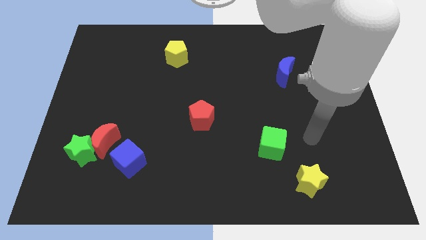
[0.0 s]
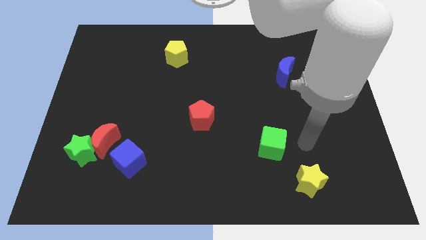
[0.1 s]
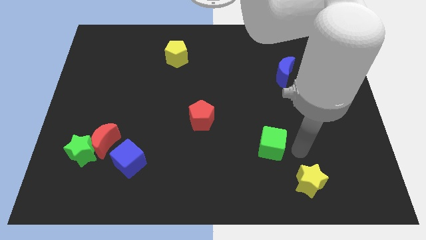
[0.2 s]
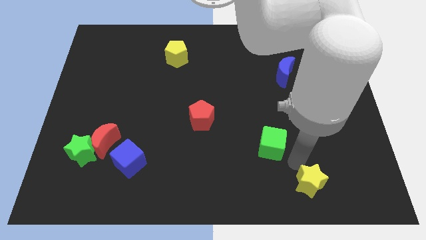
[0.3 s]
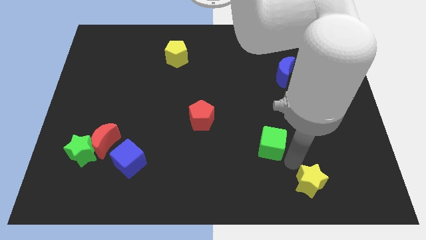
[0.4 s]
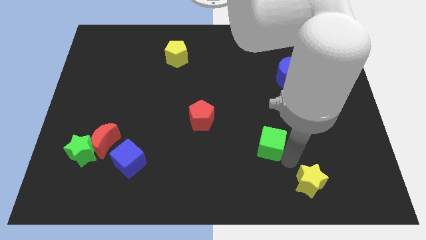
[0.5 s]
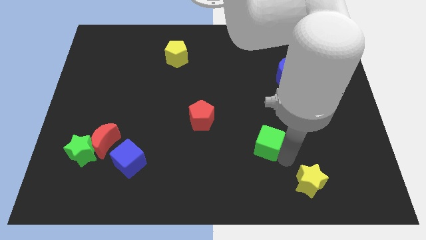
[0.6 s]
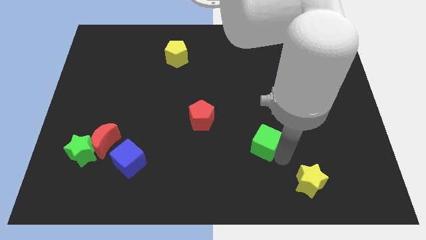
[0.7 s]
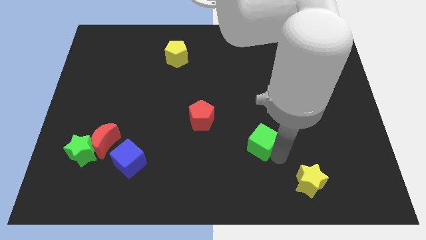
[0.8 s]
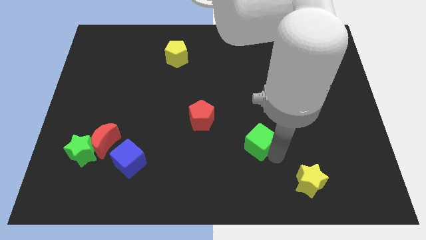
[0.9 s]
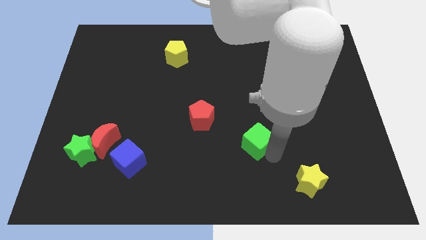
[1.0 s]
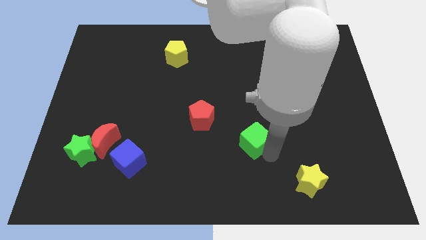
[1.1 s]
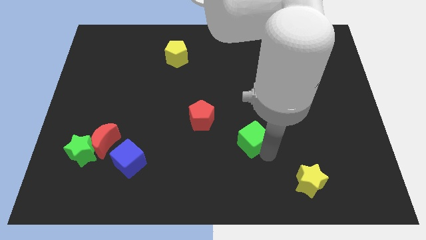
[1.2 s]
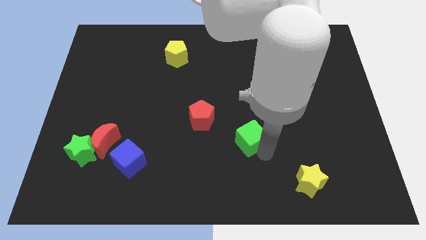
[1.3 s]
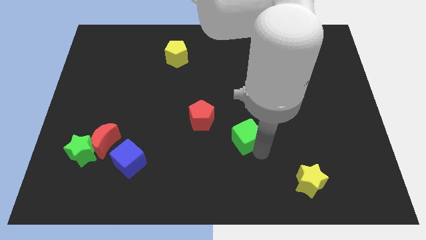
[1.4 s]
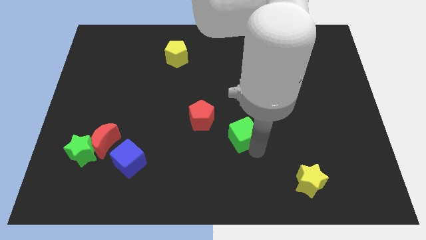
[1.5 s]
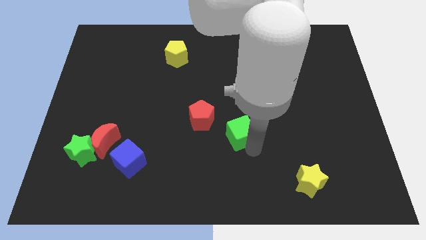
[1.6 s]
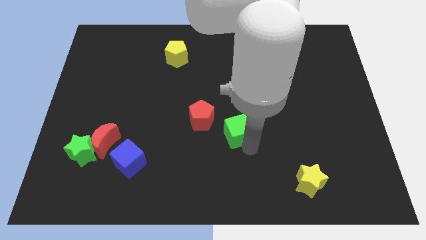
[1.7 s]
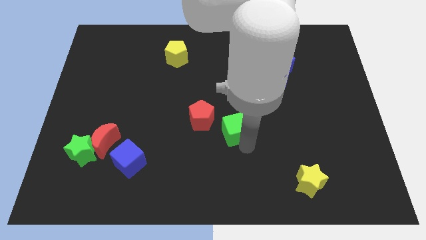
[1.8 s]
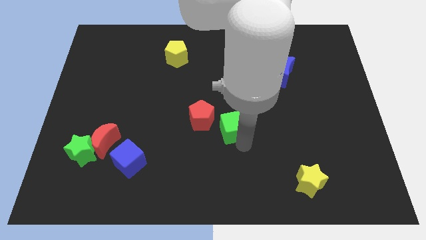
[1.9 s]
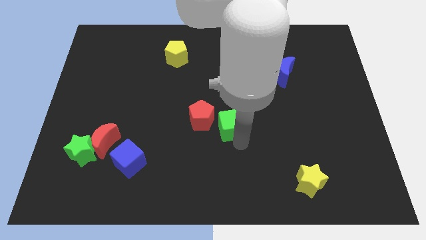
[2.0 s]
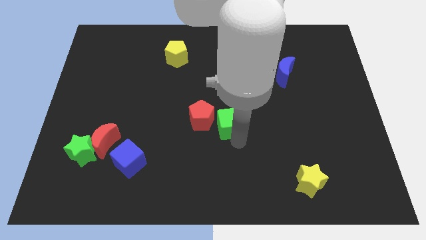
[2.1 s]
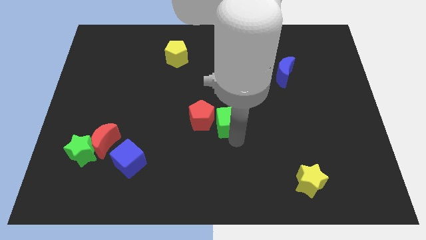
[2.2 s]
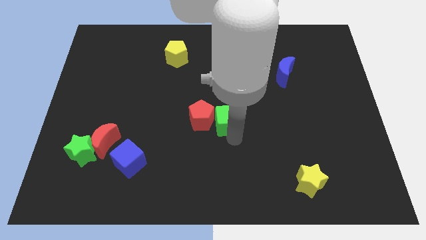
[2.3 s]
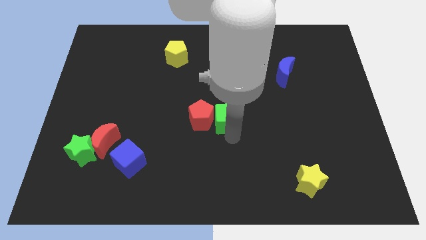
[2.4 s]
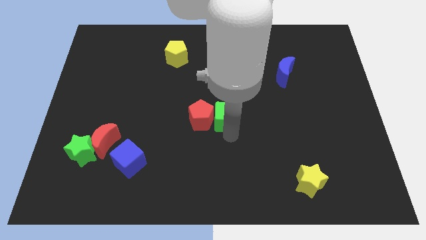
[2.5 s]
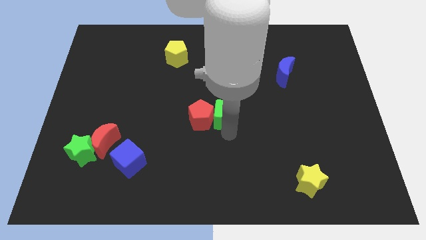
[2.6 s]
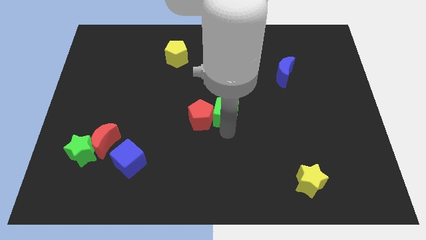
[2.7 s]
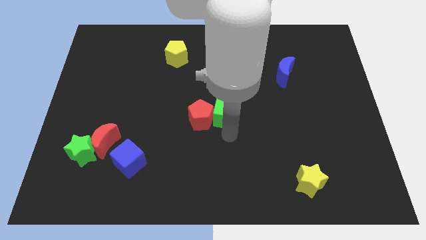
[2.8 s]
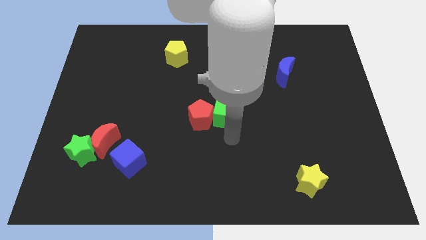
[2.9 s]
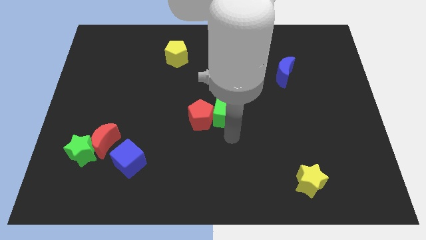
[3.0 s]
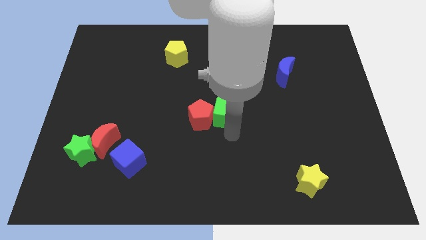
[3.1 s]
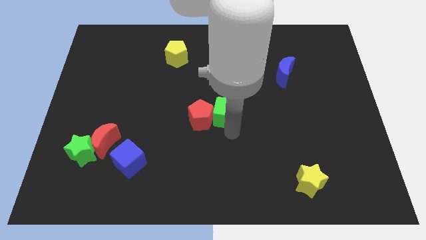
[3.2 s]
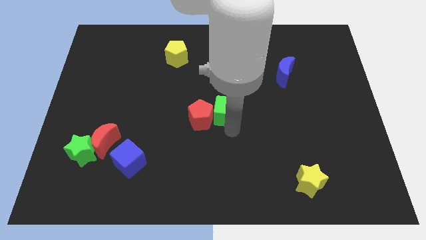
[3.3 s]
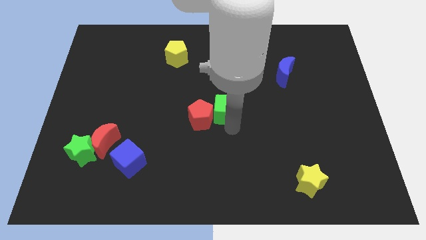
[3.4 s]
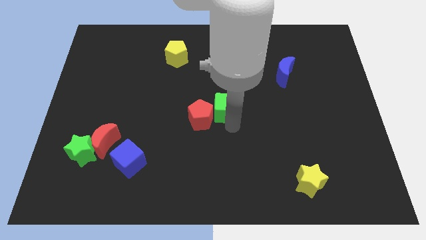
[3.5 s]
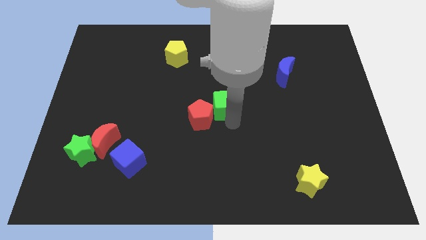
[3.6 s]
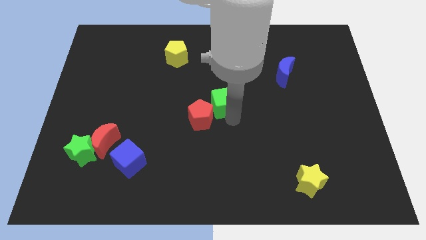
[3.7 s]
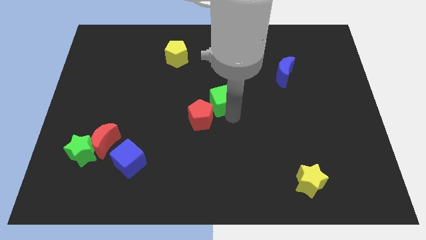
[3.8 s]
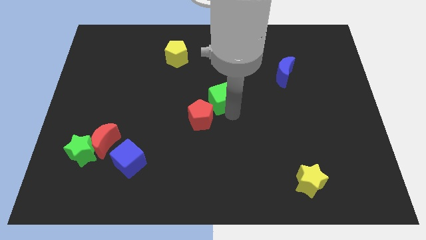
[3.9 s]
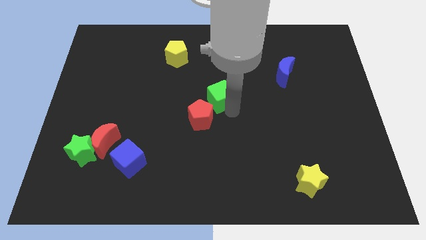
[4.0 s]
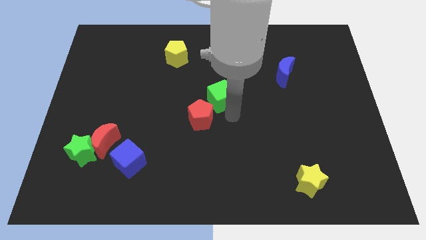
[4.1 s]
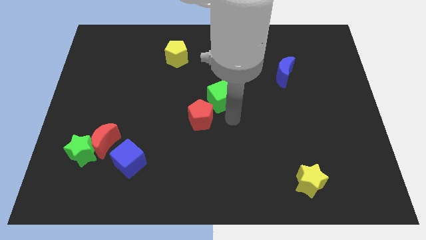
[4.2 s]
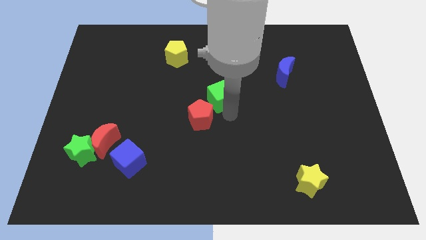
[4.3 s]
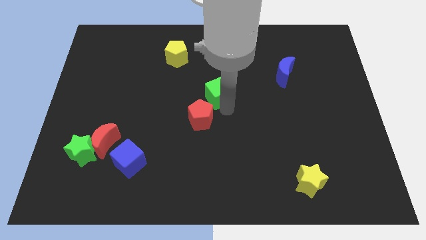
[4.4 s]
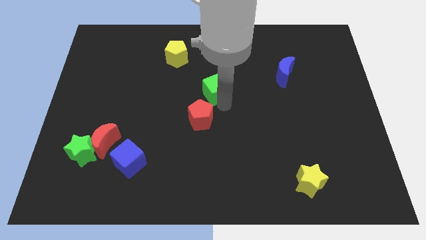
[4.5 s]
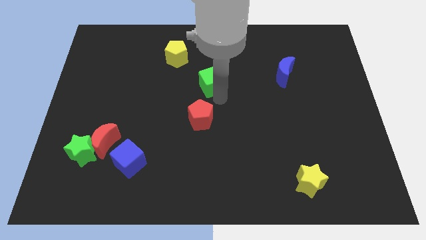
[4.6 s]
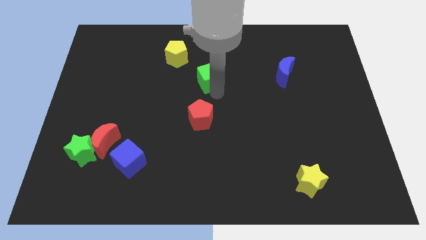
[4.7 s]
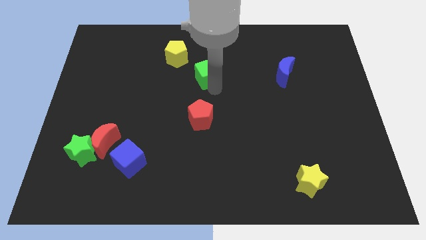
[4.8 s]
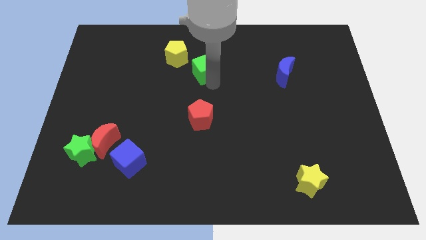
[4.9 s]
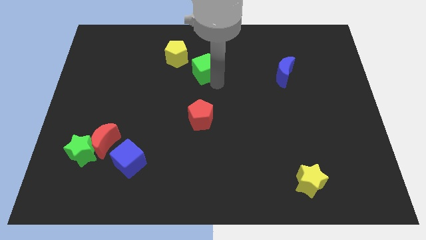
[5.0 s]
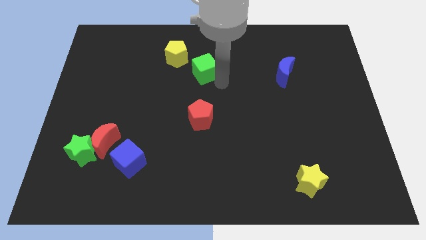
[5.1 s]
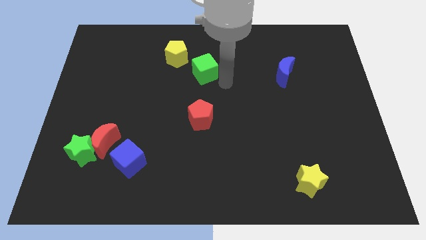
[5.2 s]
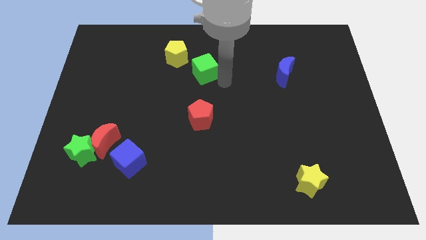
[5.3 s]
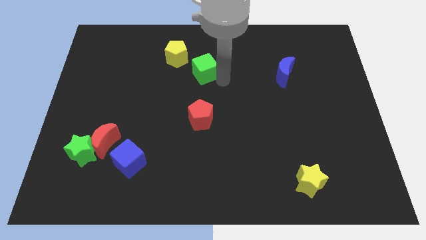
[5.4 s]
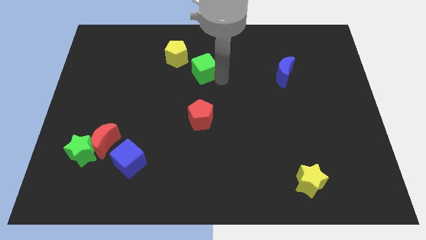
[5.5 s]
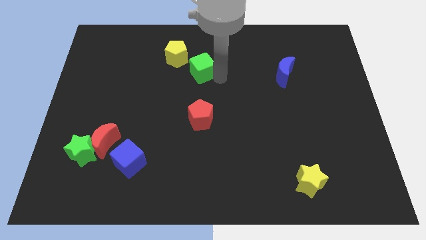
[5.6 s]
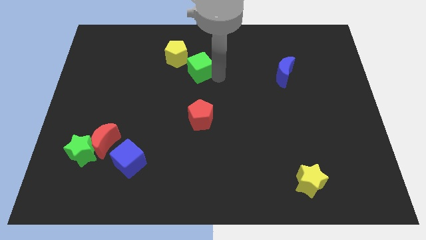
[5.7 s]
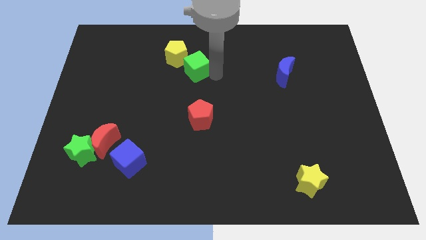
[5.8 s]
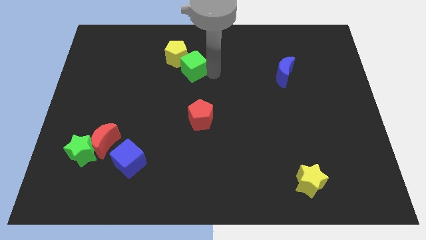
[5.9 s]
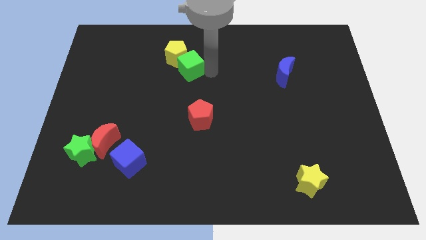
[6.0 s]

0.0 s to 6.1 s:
push the green cube towards the yellow pentagon
